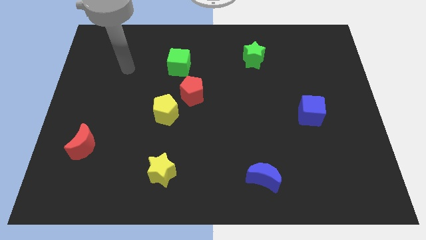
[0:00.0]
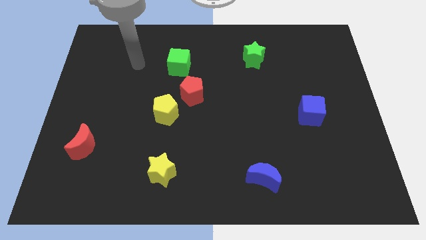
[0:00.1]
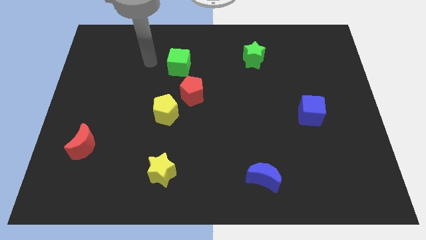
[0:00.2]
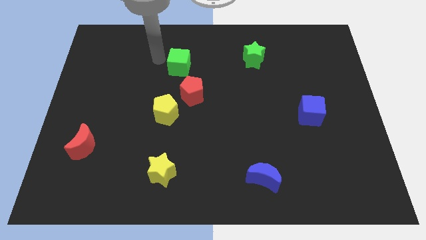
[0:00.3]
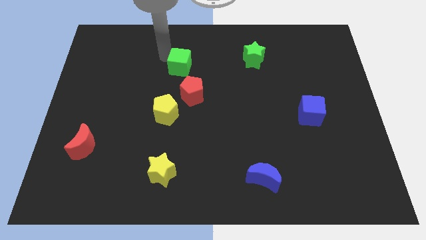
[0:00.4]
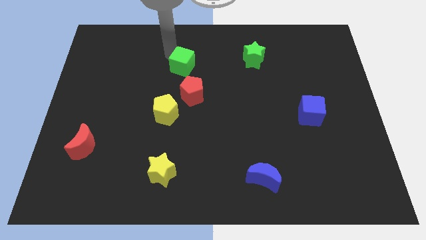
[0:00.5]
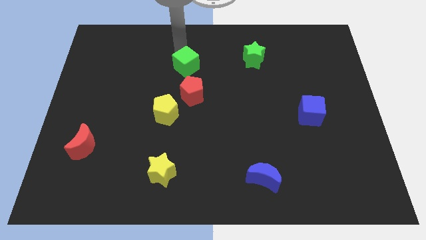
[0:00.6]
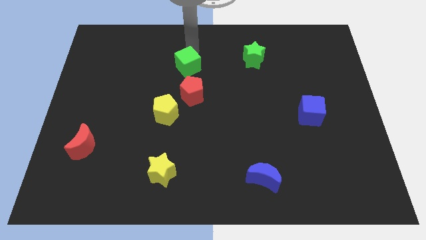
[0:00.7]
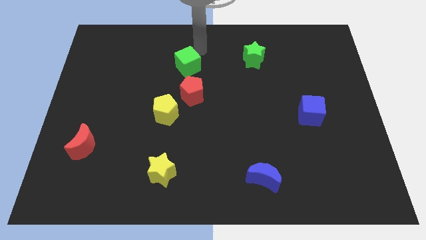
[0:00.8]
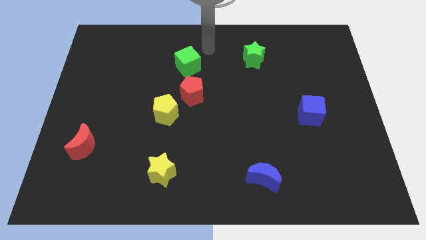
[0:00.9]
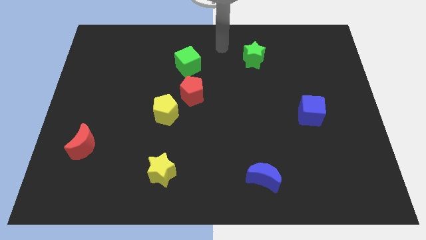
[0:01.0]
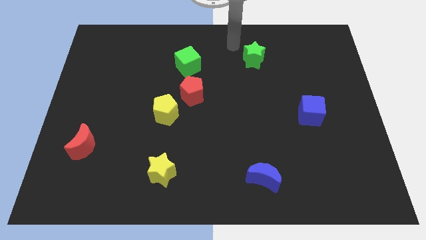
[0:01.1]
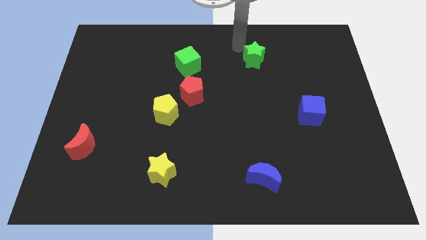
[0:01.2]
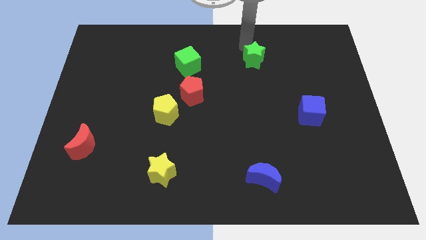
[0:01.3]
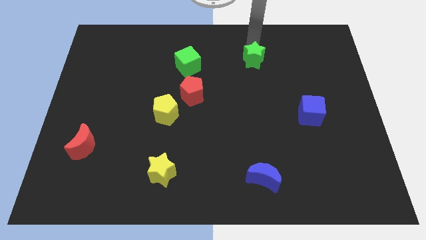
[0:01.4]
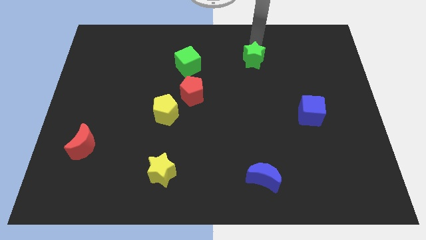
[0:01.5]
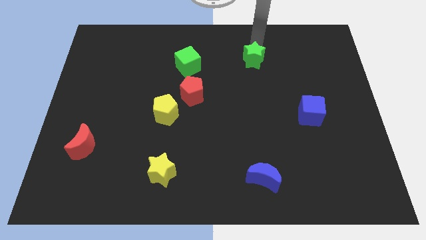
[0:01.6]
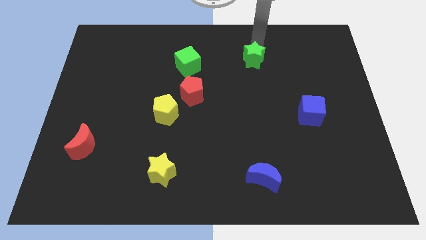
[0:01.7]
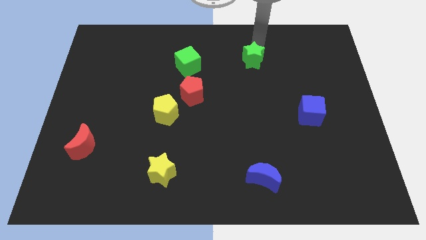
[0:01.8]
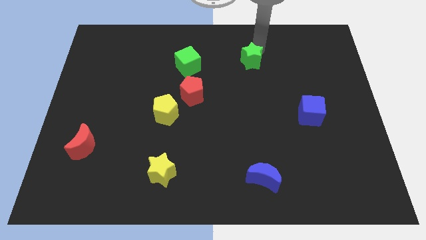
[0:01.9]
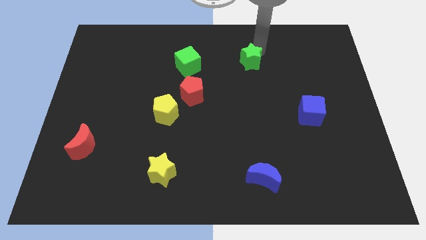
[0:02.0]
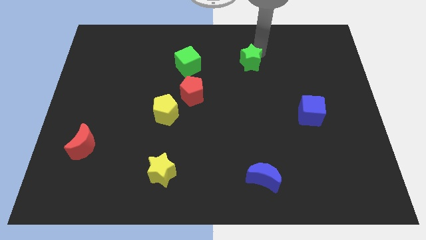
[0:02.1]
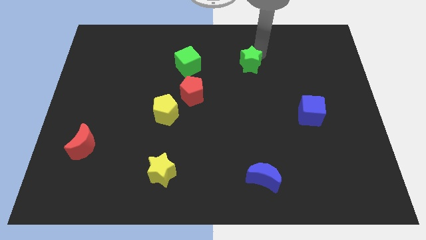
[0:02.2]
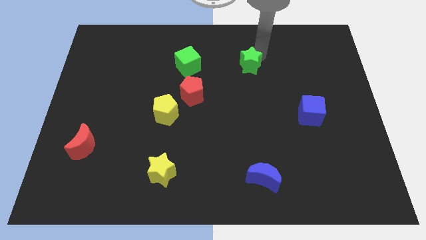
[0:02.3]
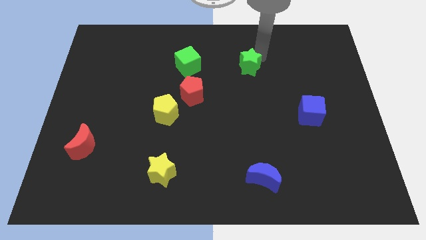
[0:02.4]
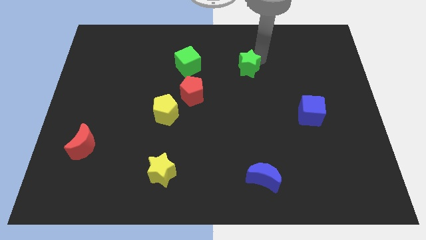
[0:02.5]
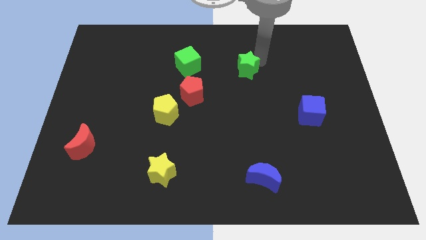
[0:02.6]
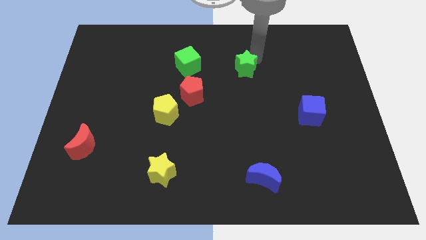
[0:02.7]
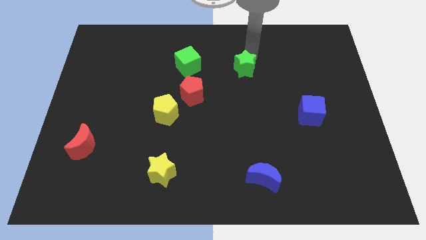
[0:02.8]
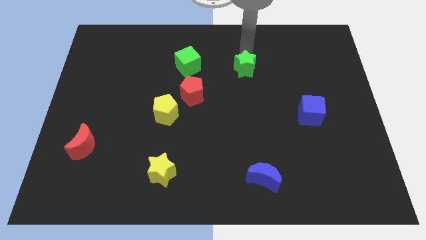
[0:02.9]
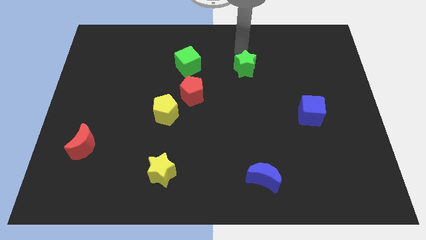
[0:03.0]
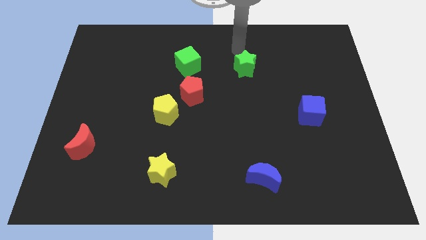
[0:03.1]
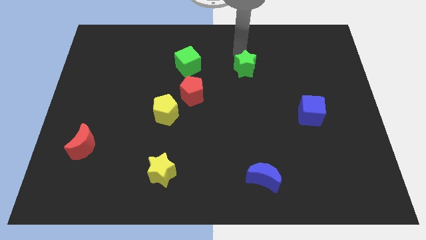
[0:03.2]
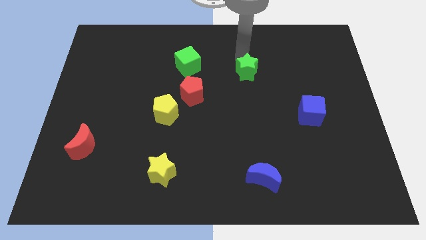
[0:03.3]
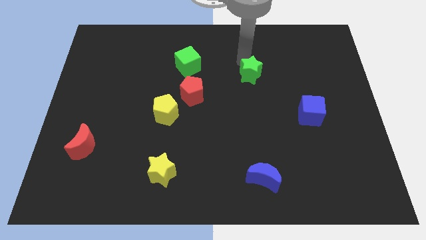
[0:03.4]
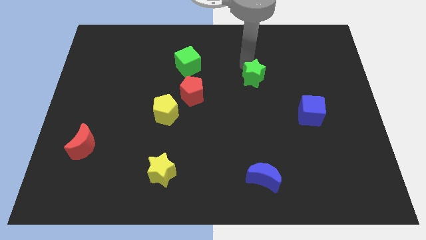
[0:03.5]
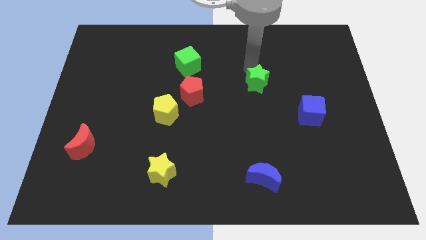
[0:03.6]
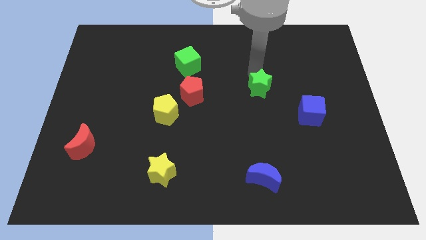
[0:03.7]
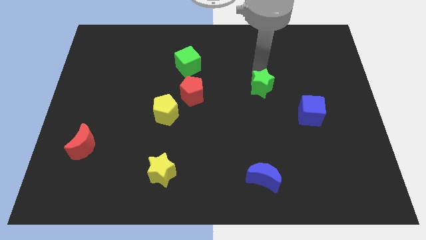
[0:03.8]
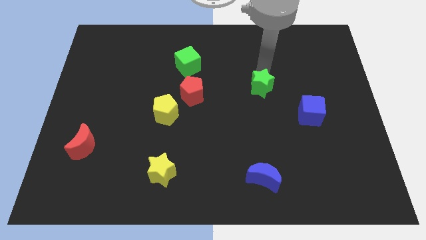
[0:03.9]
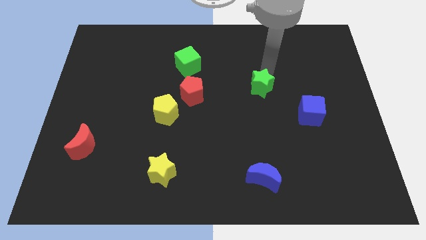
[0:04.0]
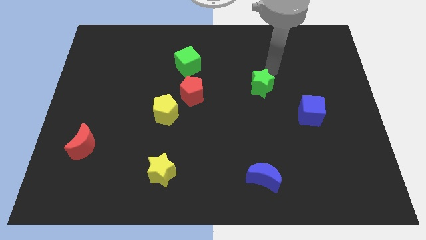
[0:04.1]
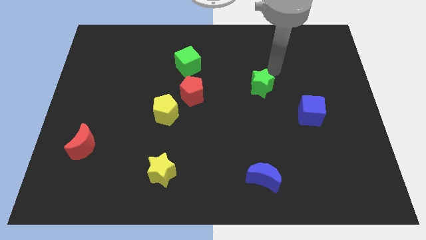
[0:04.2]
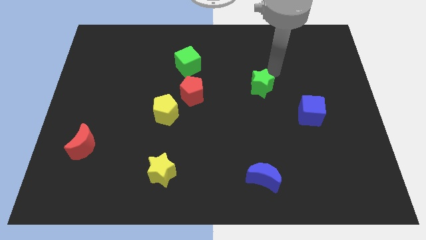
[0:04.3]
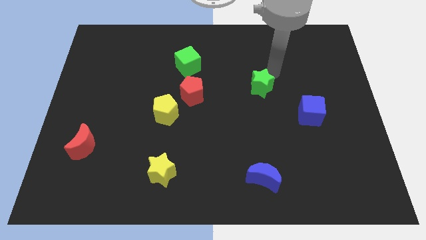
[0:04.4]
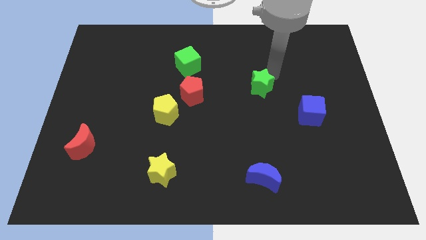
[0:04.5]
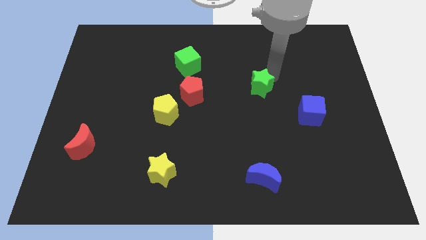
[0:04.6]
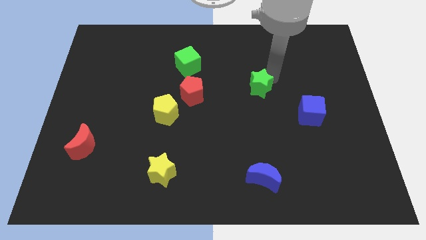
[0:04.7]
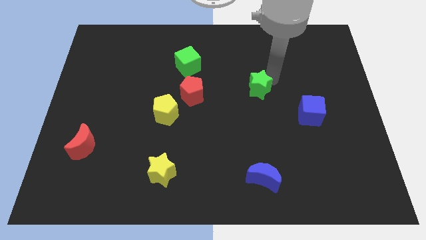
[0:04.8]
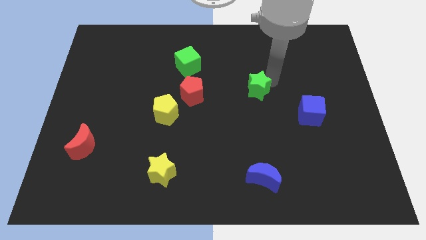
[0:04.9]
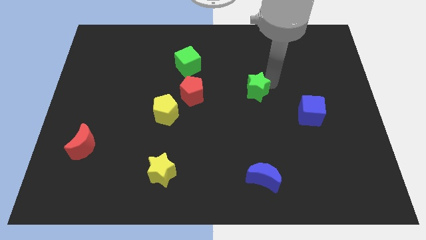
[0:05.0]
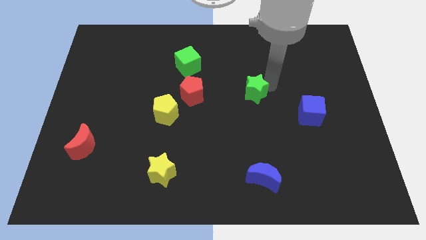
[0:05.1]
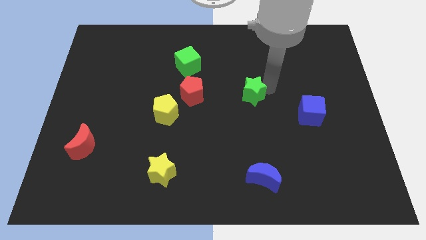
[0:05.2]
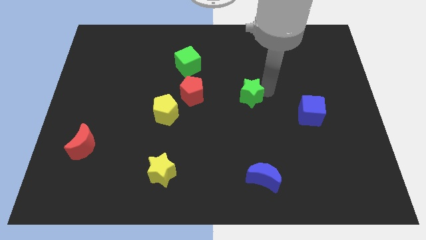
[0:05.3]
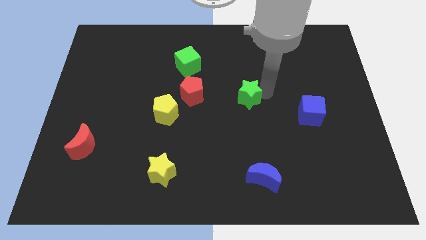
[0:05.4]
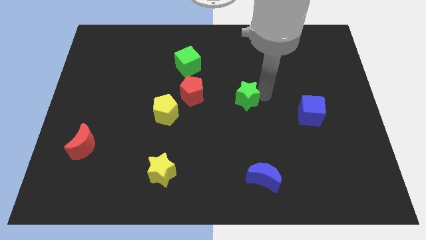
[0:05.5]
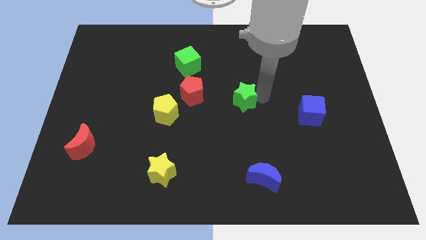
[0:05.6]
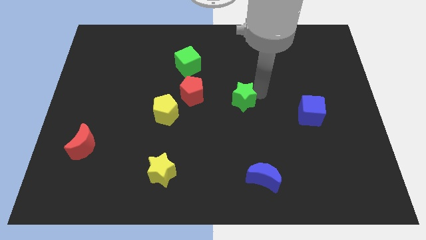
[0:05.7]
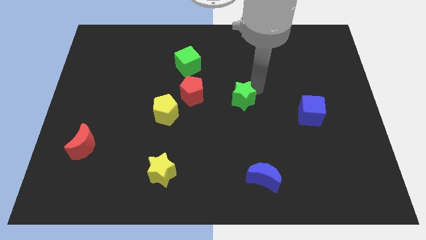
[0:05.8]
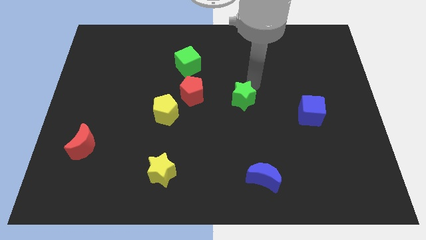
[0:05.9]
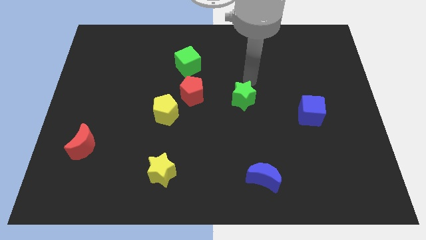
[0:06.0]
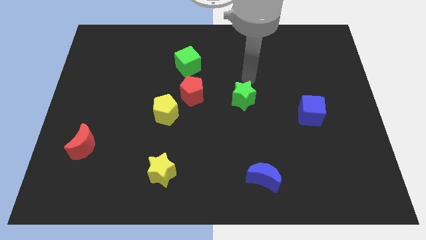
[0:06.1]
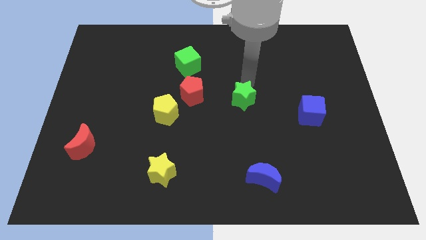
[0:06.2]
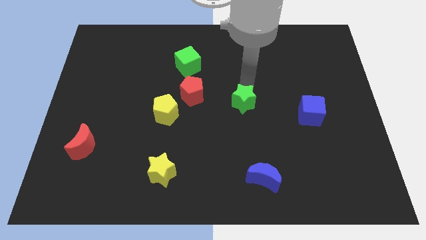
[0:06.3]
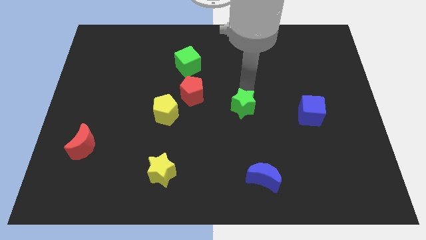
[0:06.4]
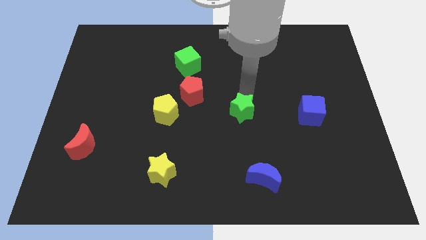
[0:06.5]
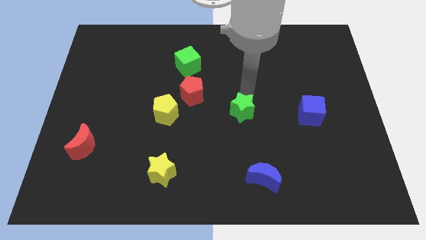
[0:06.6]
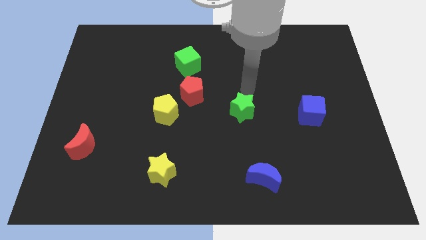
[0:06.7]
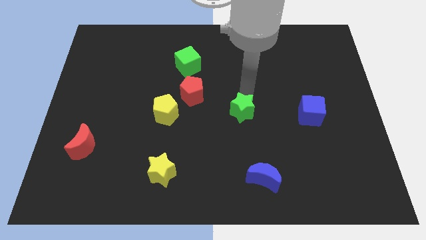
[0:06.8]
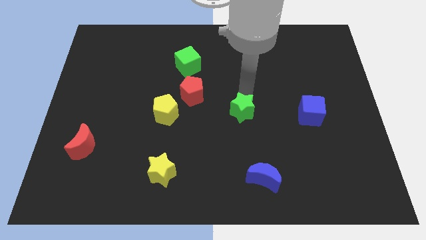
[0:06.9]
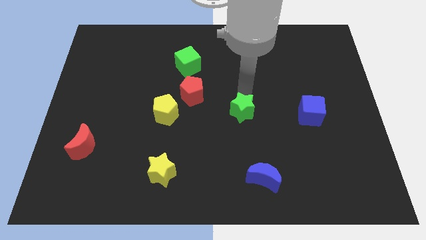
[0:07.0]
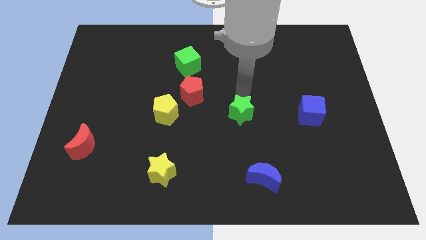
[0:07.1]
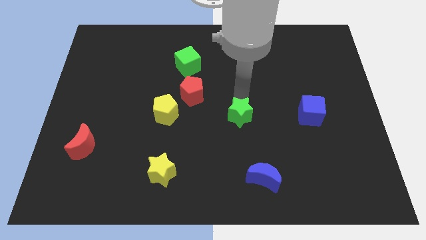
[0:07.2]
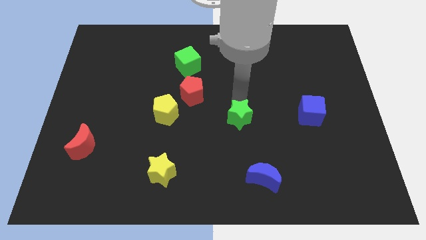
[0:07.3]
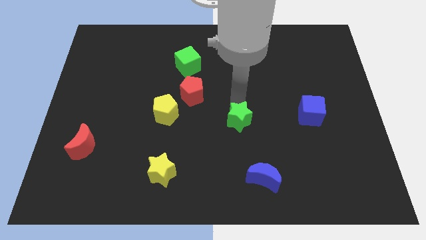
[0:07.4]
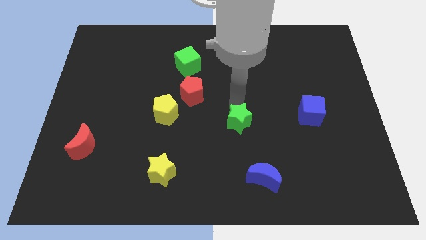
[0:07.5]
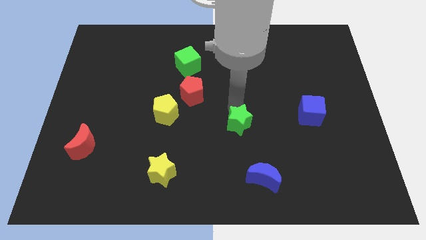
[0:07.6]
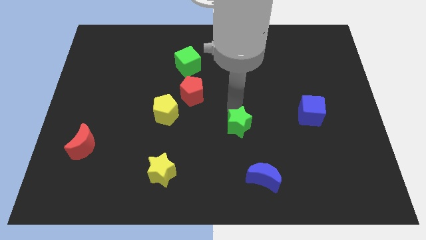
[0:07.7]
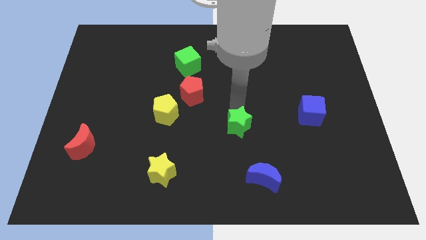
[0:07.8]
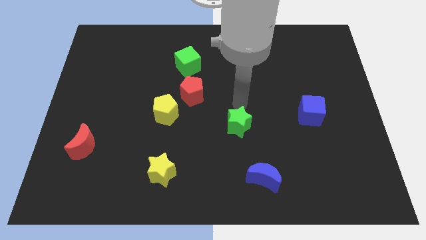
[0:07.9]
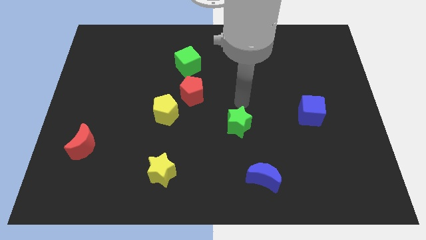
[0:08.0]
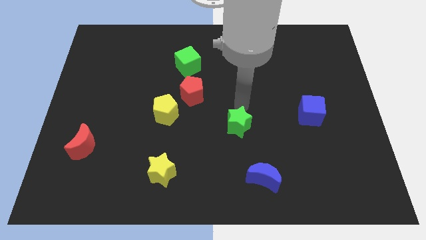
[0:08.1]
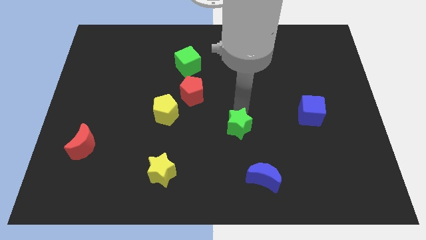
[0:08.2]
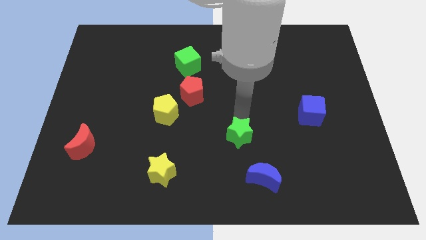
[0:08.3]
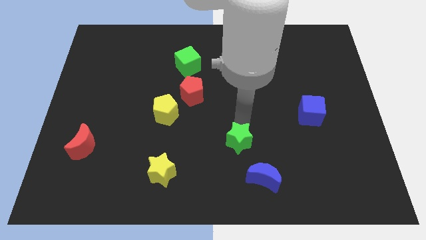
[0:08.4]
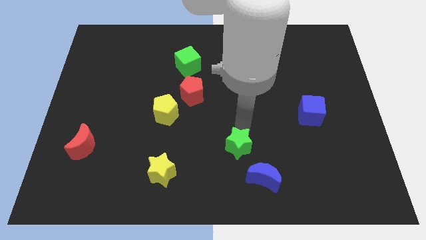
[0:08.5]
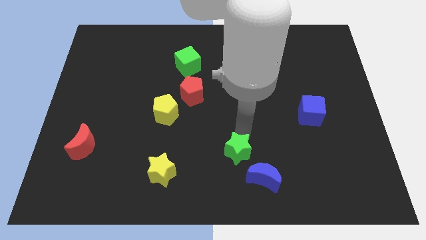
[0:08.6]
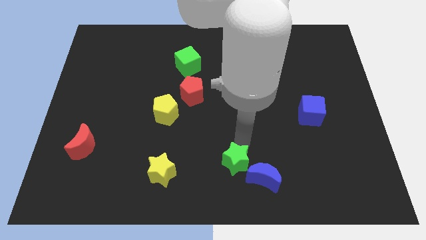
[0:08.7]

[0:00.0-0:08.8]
put the green star to the bottom
